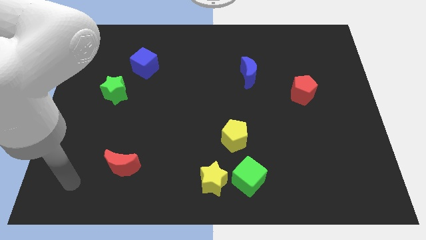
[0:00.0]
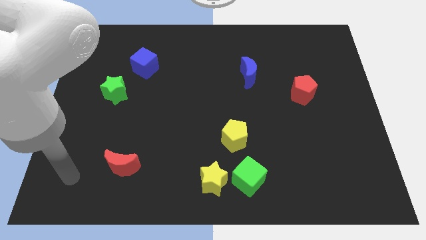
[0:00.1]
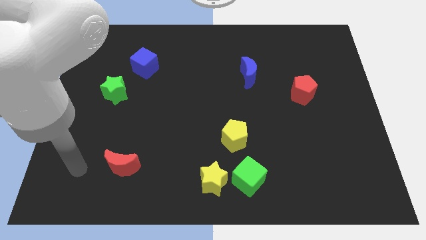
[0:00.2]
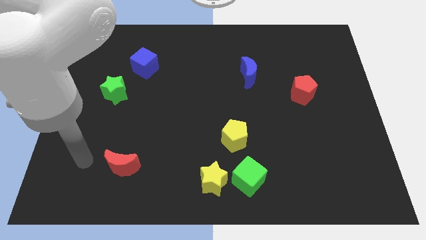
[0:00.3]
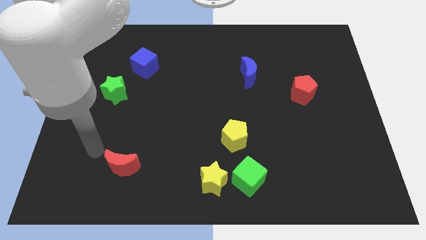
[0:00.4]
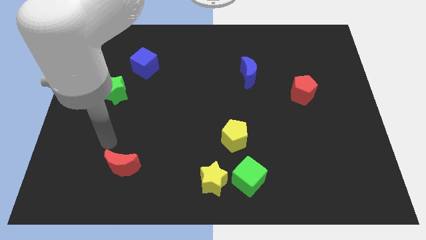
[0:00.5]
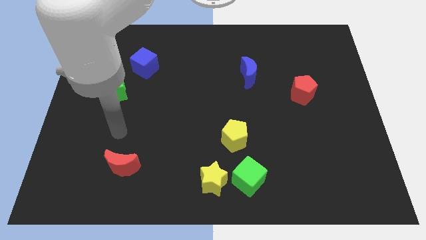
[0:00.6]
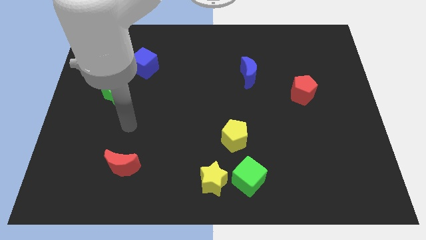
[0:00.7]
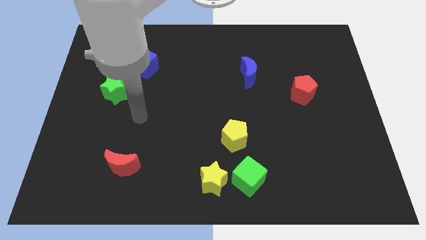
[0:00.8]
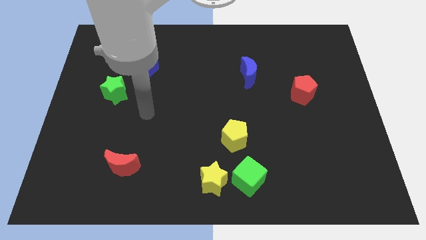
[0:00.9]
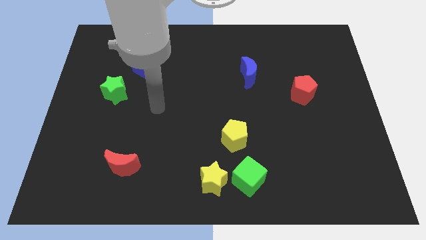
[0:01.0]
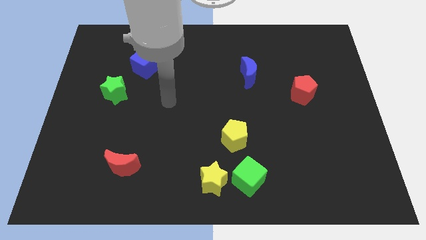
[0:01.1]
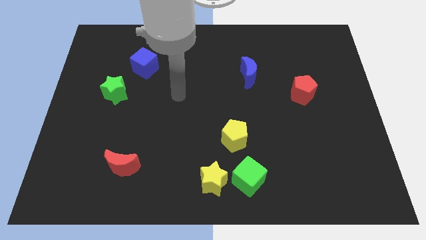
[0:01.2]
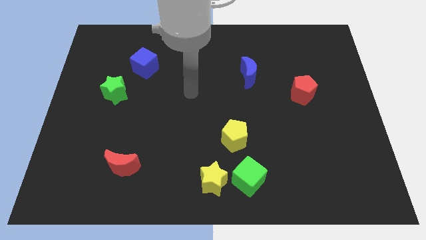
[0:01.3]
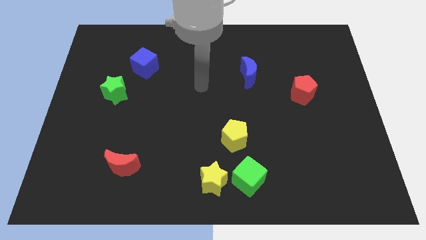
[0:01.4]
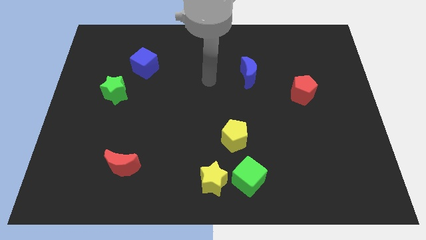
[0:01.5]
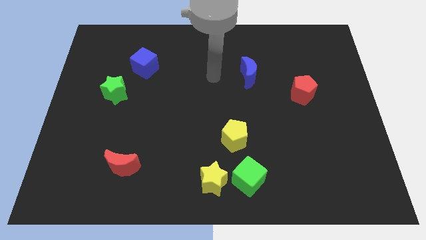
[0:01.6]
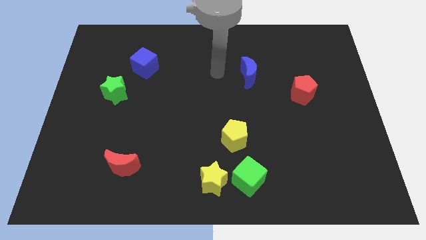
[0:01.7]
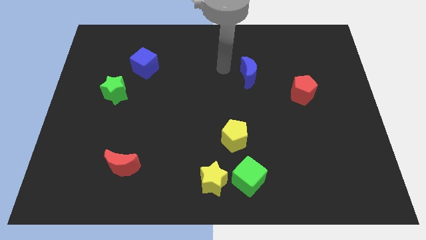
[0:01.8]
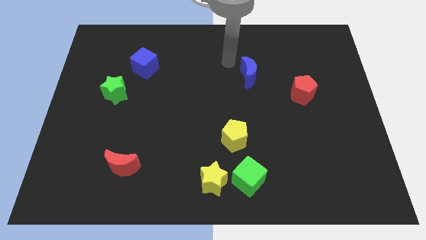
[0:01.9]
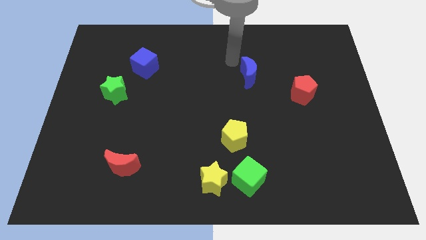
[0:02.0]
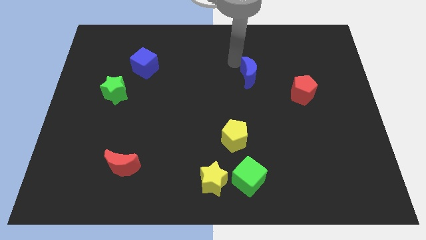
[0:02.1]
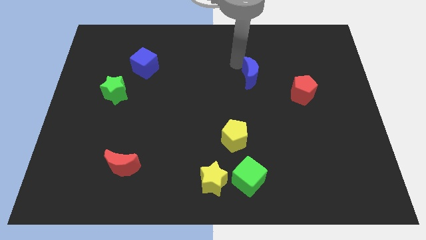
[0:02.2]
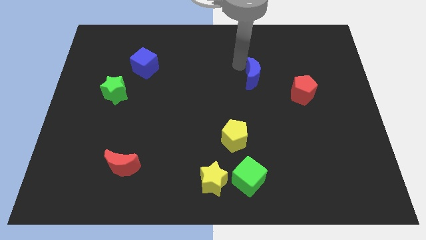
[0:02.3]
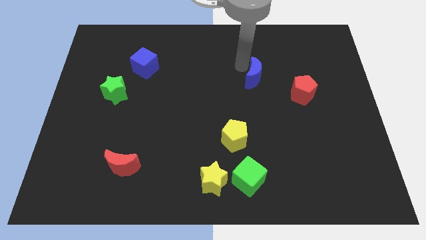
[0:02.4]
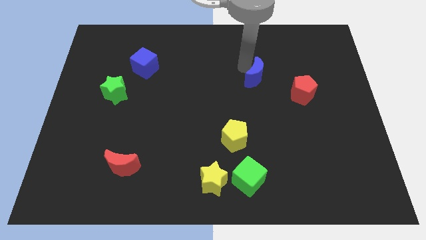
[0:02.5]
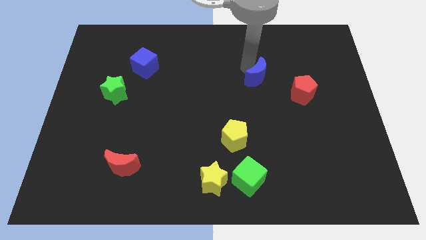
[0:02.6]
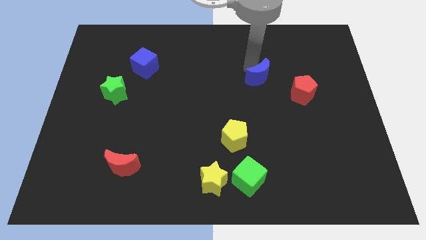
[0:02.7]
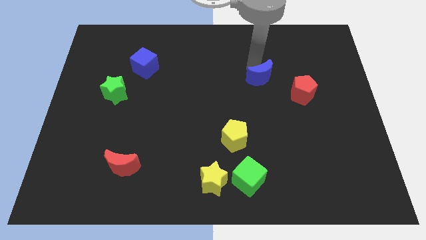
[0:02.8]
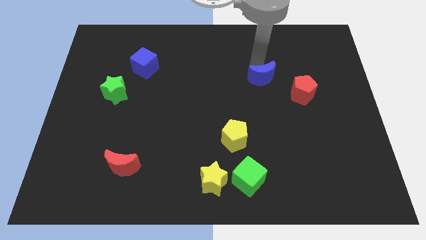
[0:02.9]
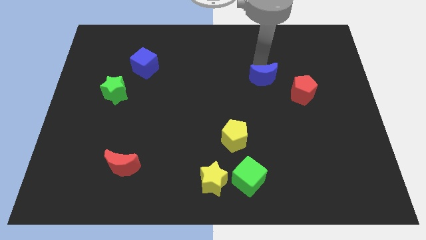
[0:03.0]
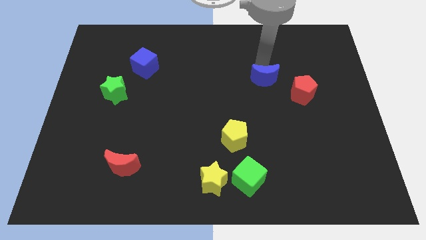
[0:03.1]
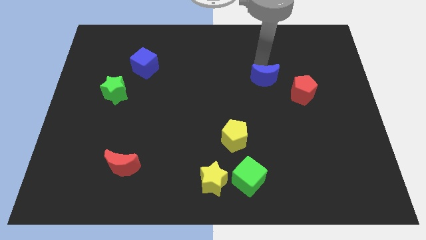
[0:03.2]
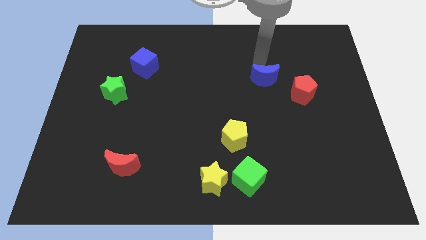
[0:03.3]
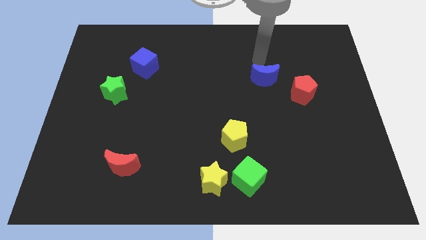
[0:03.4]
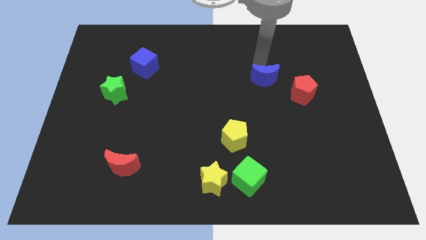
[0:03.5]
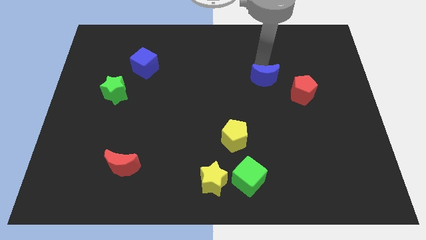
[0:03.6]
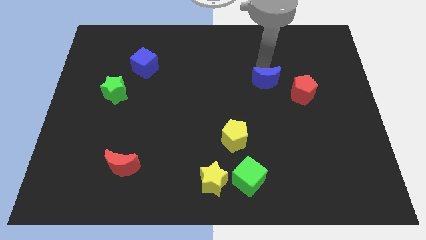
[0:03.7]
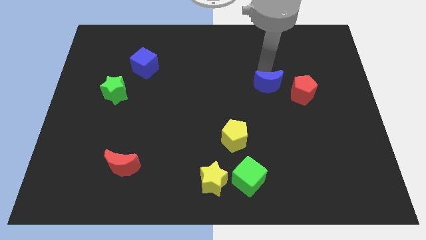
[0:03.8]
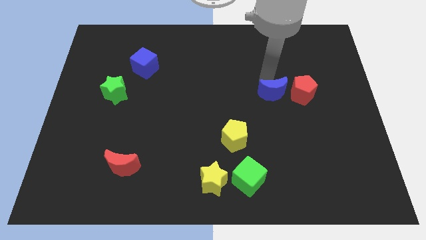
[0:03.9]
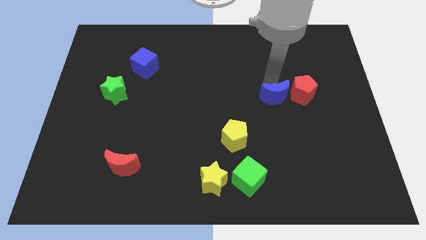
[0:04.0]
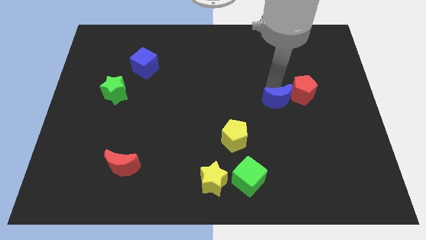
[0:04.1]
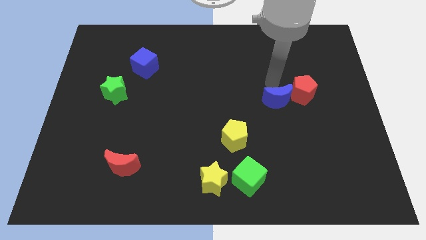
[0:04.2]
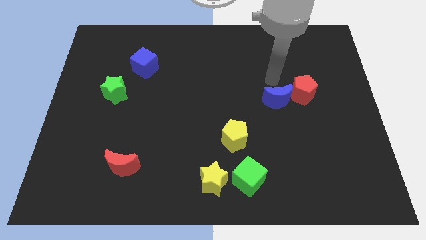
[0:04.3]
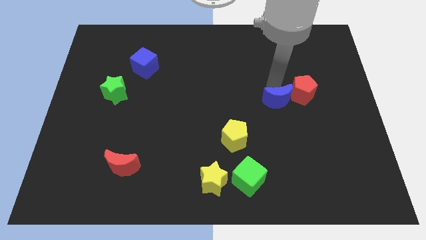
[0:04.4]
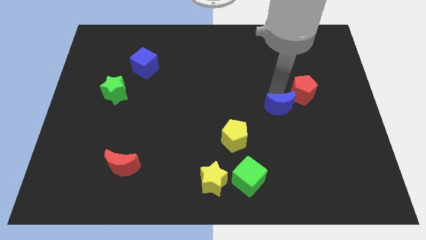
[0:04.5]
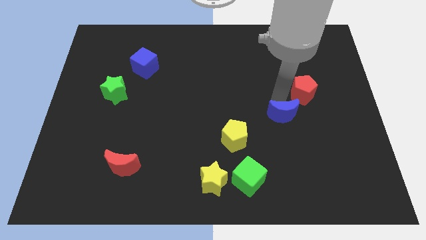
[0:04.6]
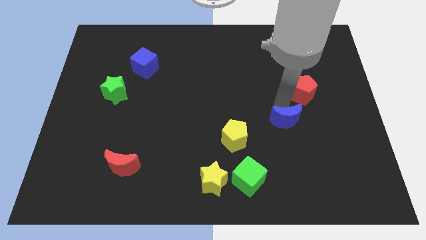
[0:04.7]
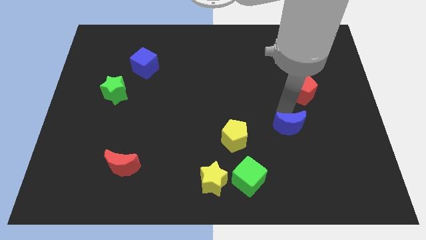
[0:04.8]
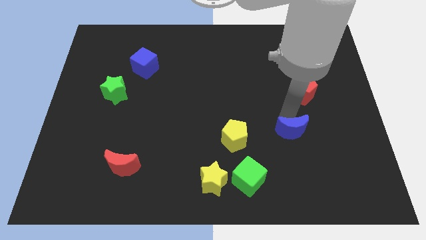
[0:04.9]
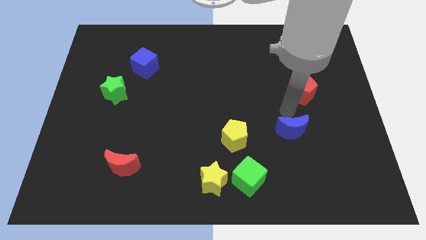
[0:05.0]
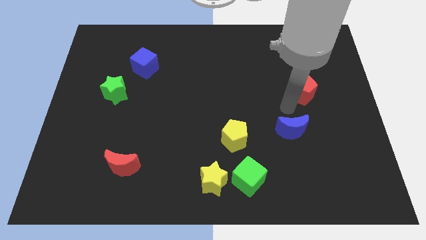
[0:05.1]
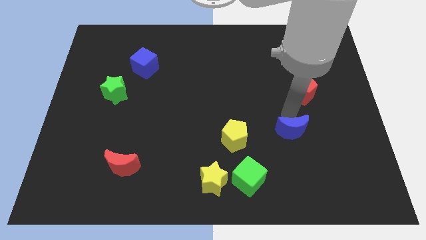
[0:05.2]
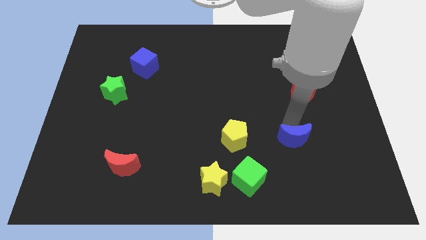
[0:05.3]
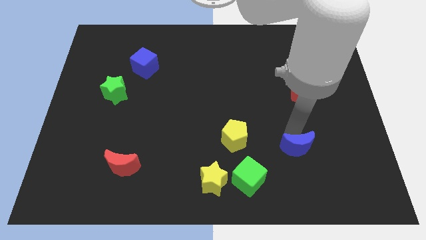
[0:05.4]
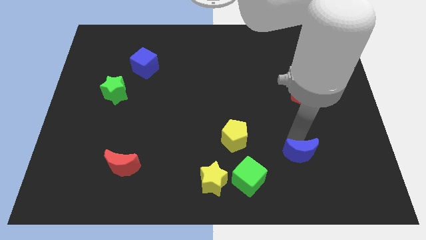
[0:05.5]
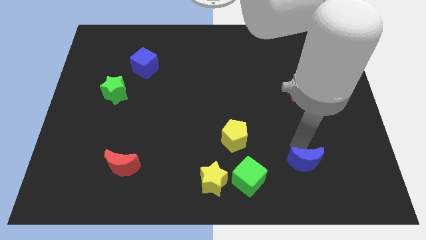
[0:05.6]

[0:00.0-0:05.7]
put the blue moon to the right side of the green cube

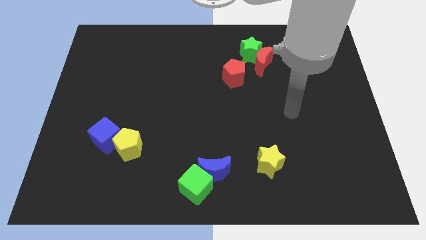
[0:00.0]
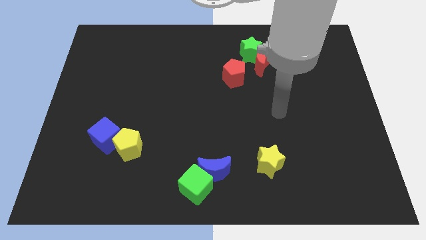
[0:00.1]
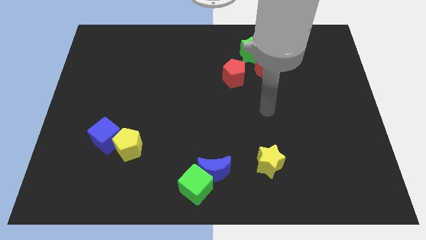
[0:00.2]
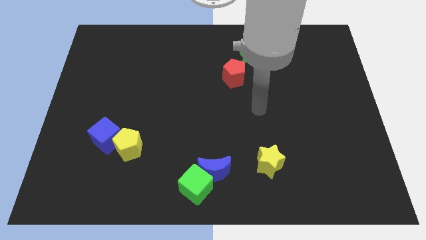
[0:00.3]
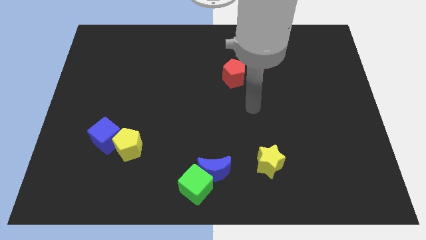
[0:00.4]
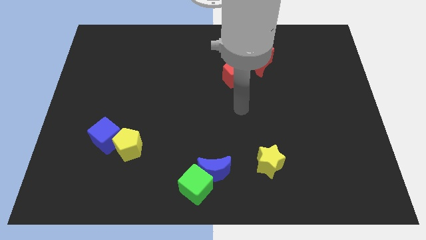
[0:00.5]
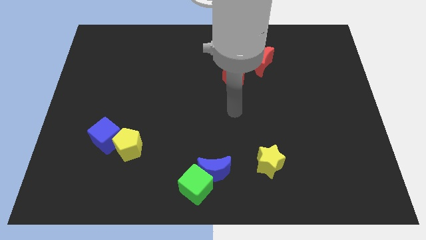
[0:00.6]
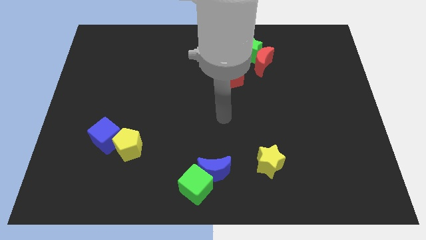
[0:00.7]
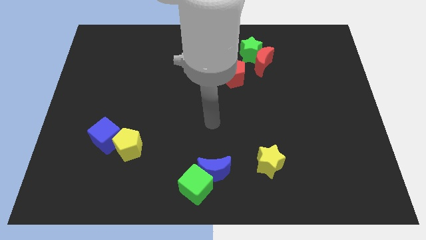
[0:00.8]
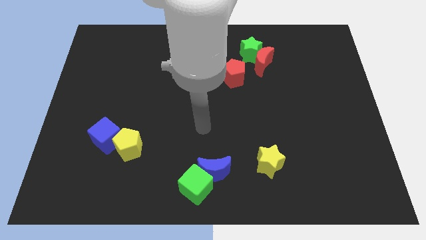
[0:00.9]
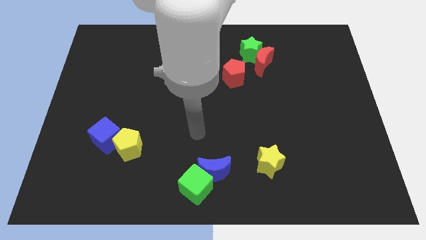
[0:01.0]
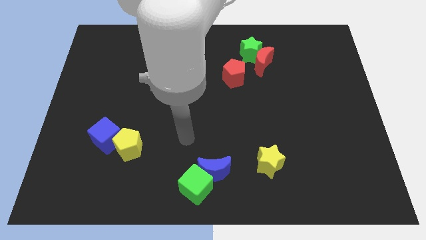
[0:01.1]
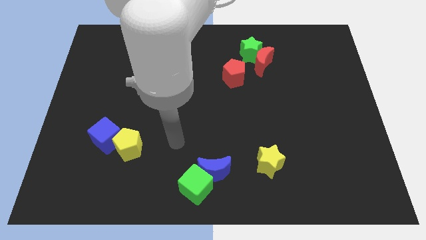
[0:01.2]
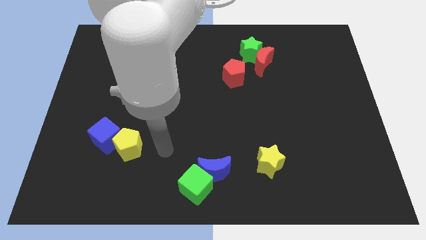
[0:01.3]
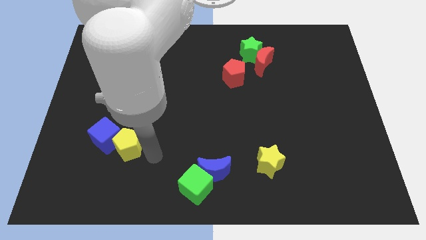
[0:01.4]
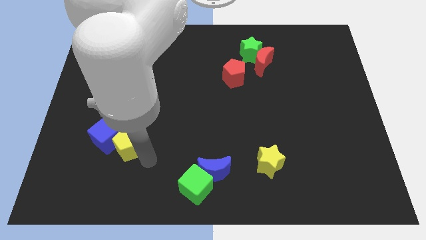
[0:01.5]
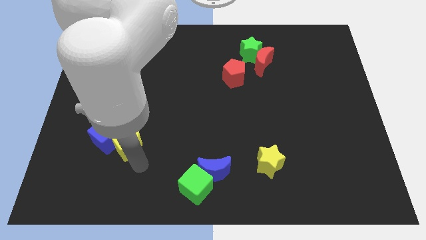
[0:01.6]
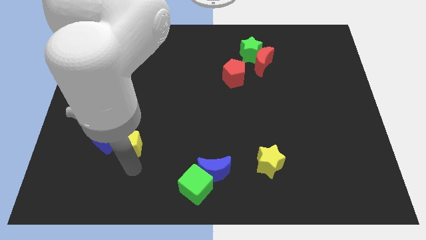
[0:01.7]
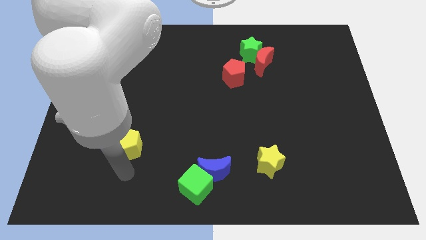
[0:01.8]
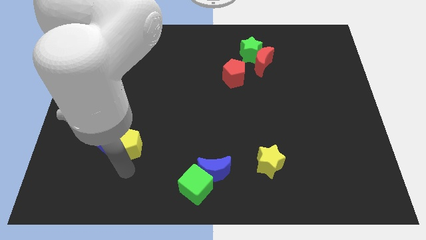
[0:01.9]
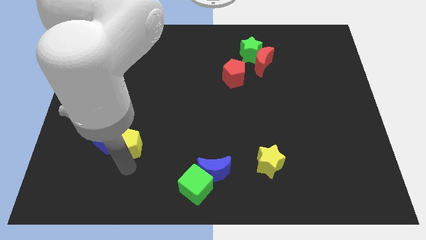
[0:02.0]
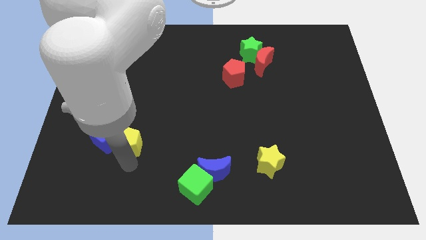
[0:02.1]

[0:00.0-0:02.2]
move the yellow pentagon to the top right side of the blue cube
